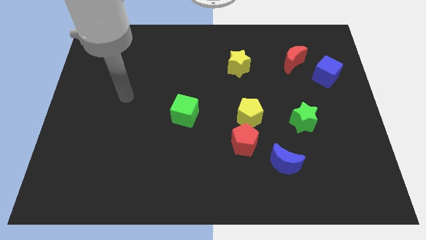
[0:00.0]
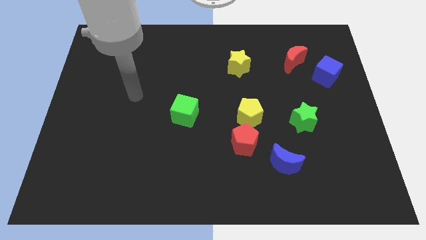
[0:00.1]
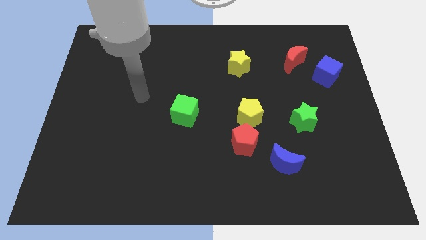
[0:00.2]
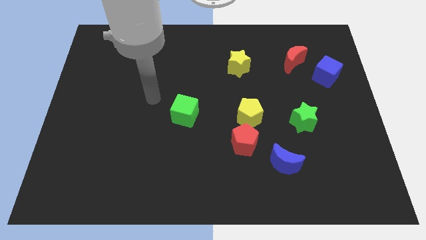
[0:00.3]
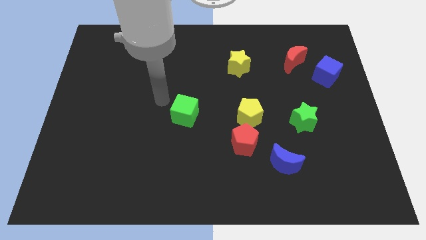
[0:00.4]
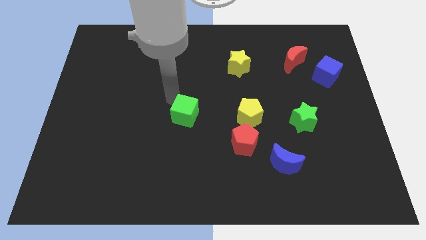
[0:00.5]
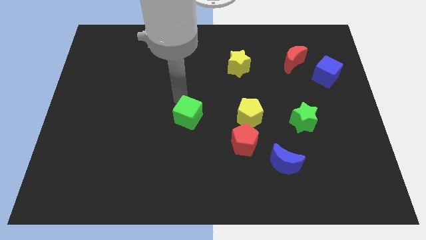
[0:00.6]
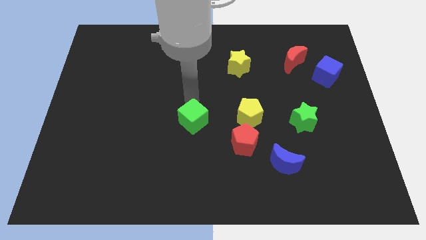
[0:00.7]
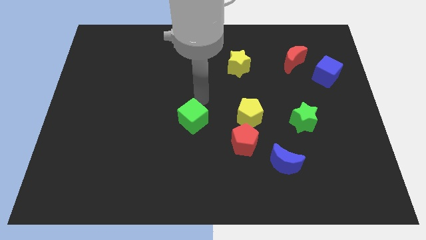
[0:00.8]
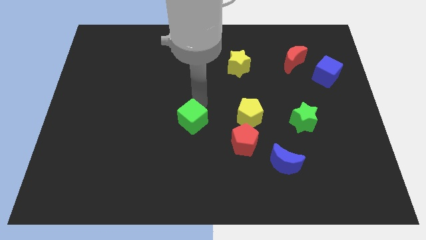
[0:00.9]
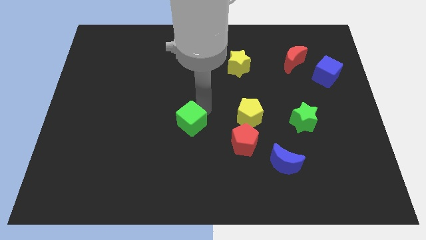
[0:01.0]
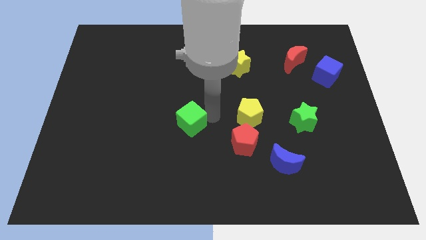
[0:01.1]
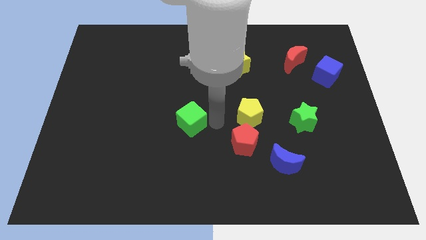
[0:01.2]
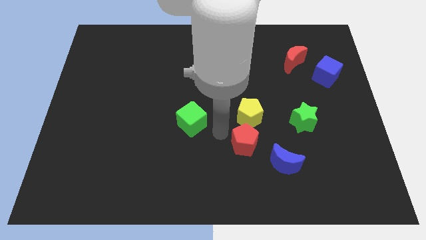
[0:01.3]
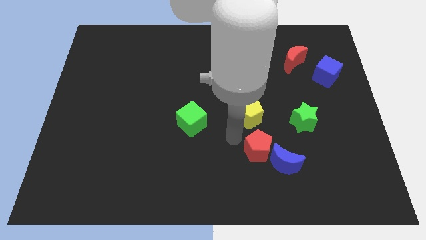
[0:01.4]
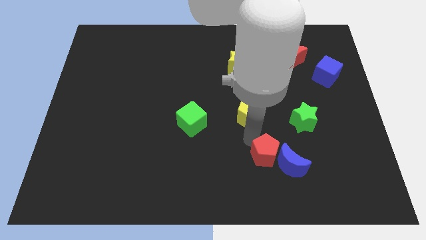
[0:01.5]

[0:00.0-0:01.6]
separate the yellow pentagon from the red pentagon

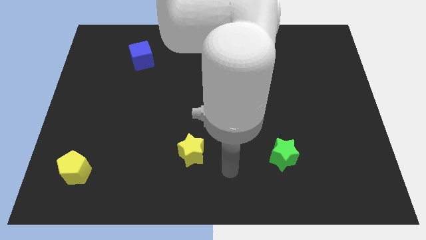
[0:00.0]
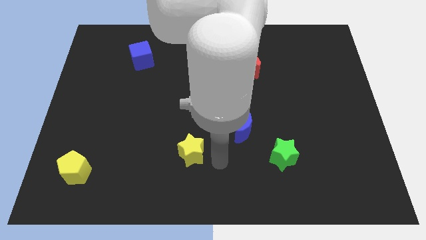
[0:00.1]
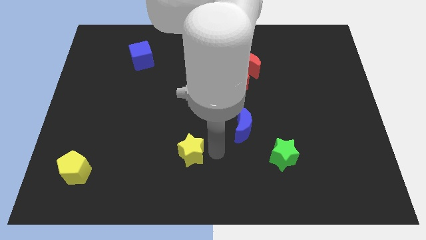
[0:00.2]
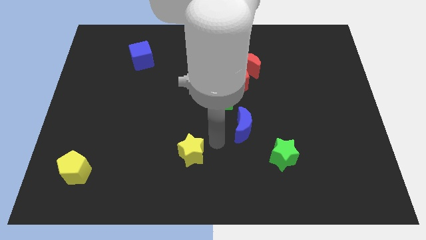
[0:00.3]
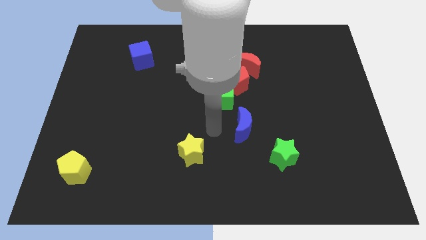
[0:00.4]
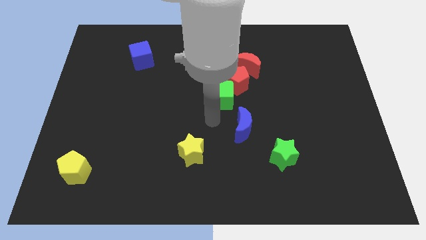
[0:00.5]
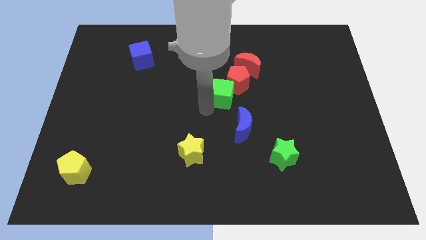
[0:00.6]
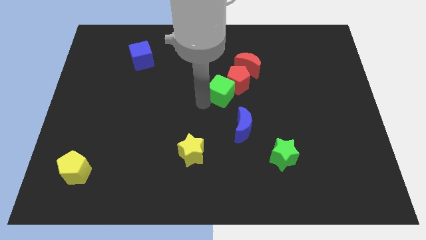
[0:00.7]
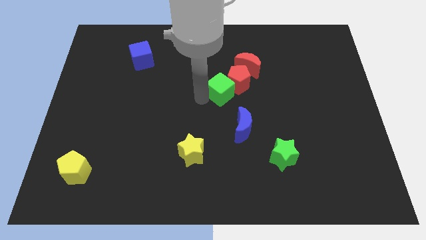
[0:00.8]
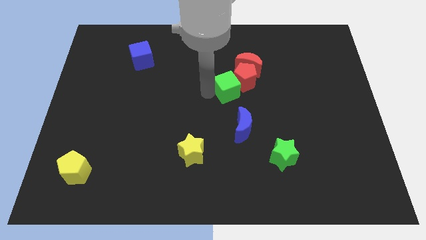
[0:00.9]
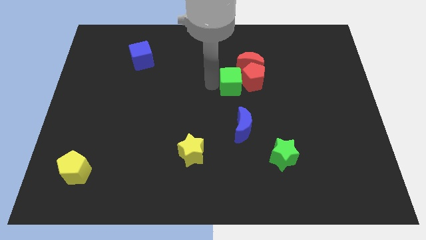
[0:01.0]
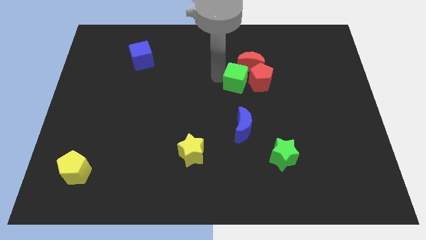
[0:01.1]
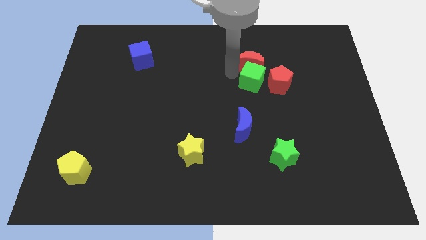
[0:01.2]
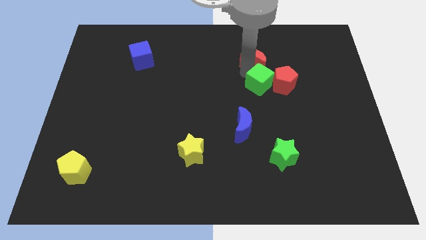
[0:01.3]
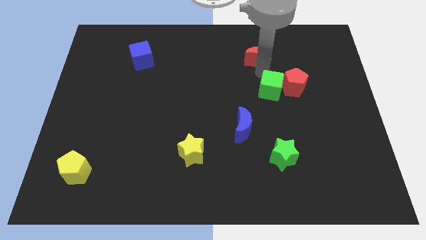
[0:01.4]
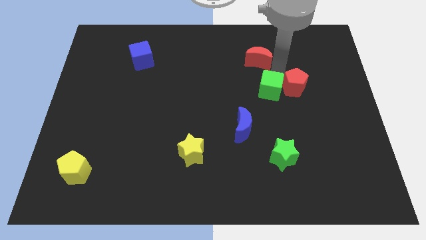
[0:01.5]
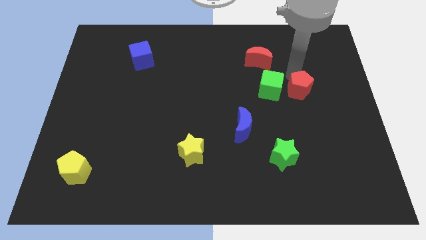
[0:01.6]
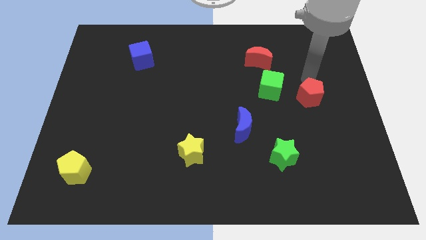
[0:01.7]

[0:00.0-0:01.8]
move the red pentagon away from the green cube and red moon

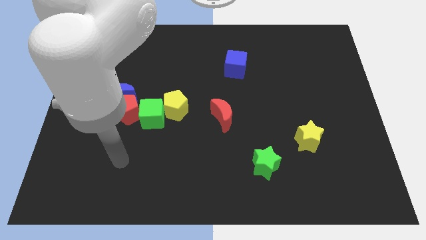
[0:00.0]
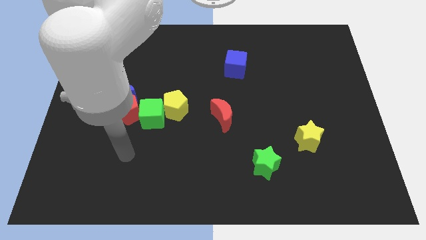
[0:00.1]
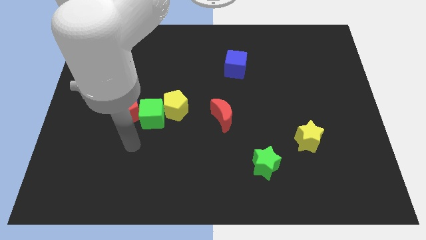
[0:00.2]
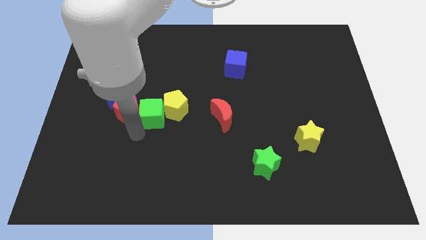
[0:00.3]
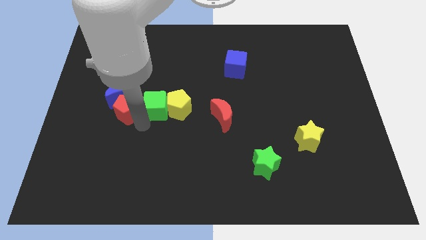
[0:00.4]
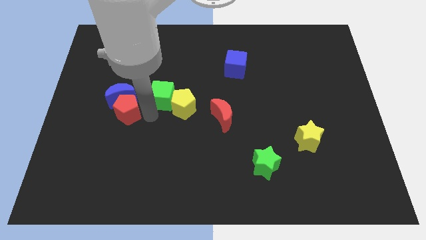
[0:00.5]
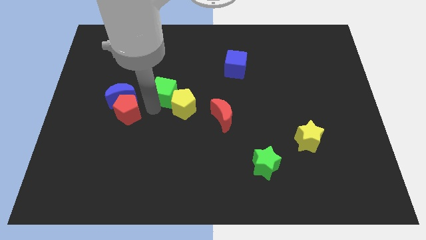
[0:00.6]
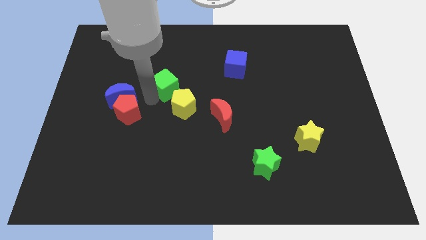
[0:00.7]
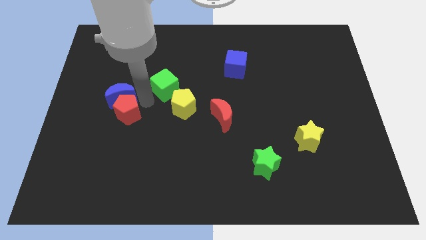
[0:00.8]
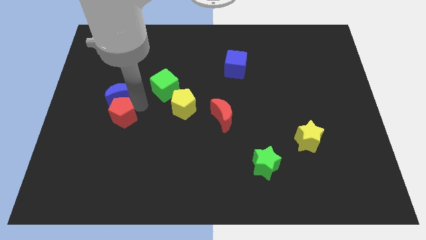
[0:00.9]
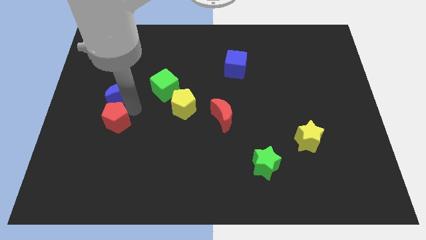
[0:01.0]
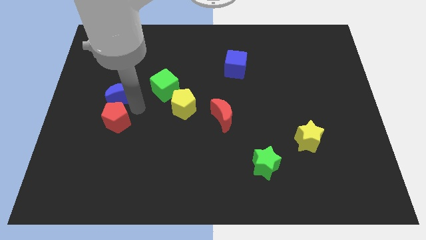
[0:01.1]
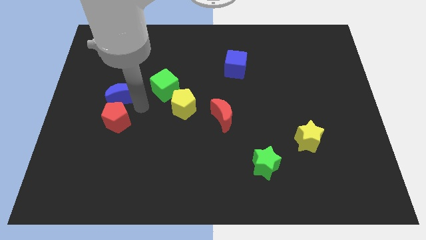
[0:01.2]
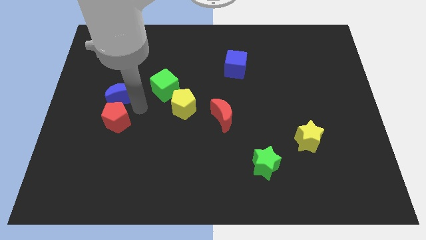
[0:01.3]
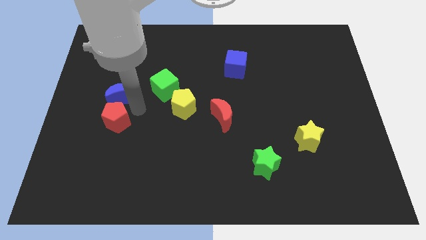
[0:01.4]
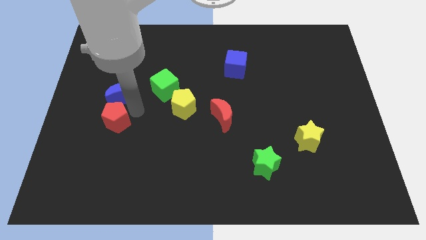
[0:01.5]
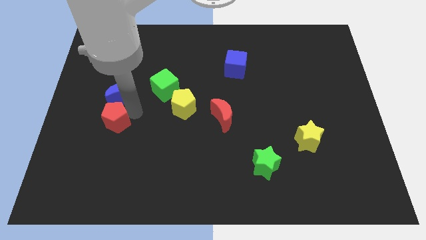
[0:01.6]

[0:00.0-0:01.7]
separate the red pentagon from the blue moon and green cube

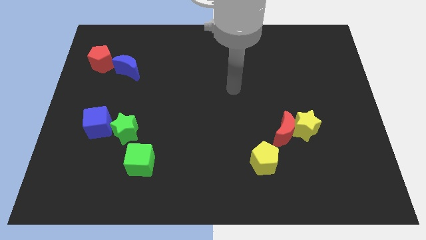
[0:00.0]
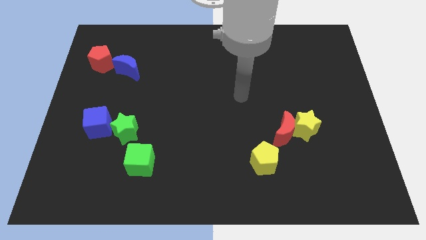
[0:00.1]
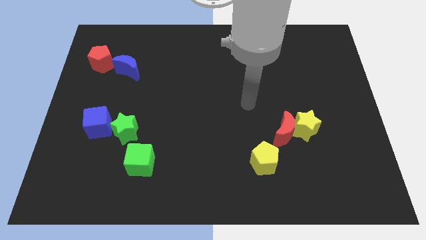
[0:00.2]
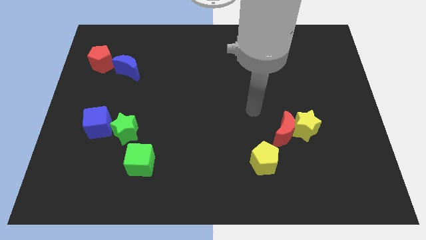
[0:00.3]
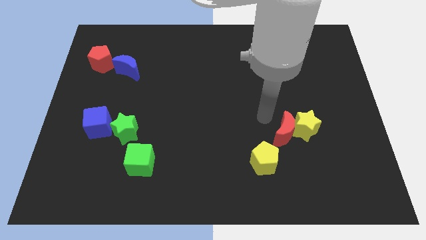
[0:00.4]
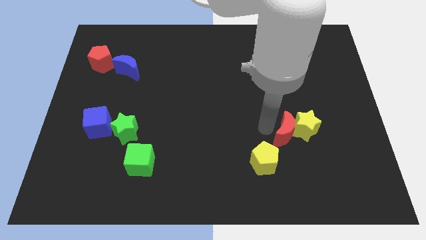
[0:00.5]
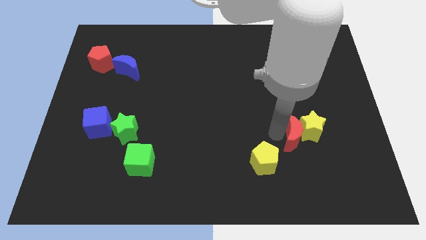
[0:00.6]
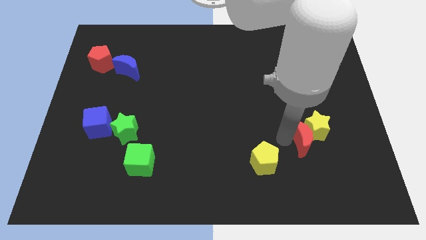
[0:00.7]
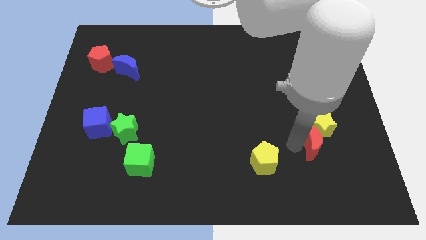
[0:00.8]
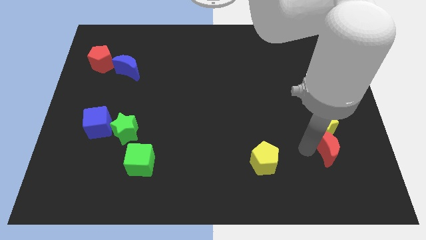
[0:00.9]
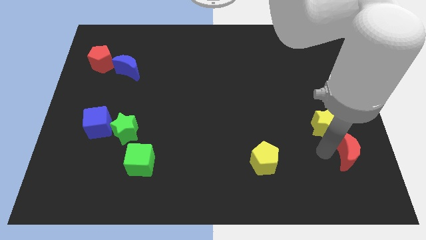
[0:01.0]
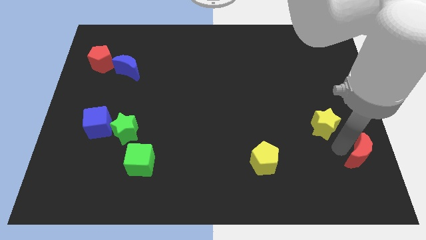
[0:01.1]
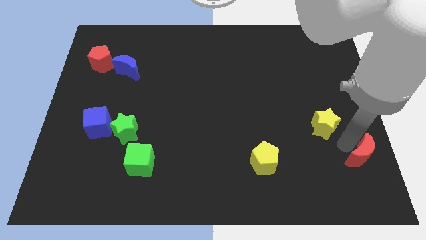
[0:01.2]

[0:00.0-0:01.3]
pull the yellow star apart from the red moon

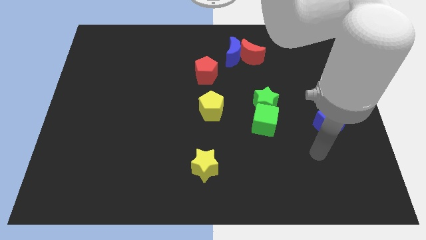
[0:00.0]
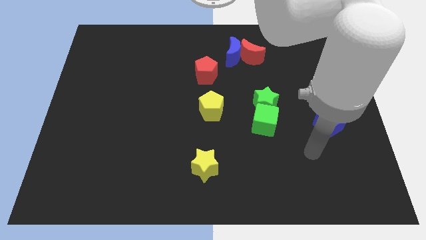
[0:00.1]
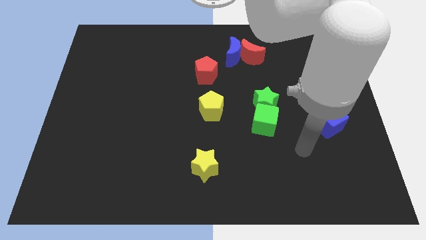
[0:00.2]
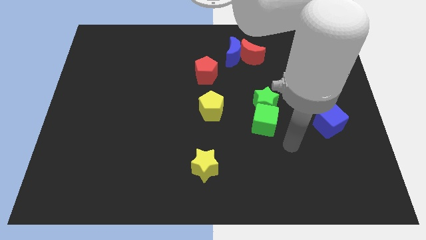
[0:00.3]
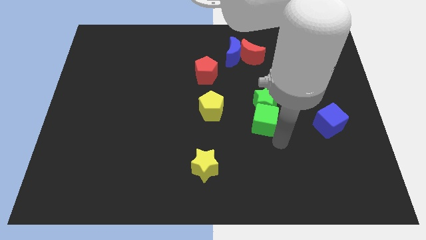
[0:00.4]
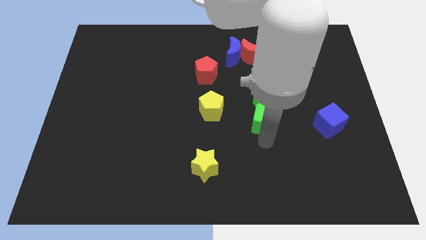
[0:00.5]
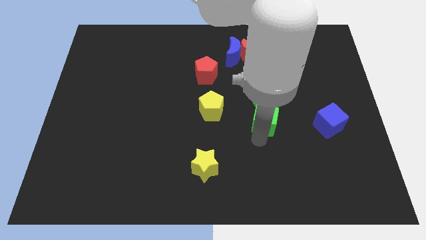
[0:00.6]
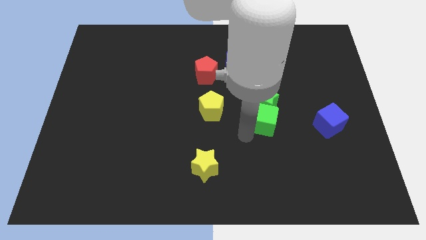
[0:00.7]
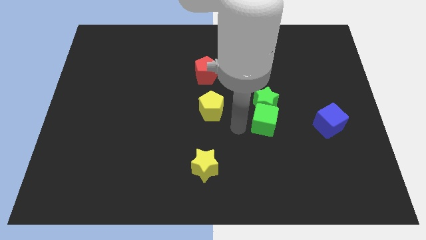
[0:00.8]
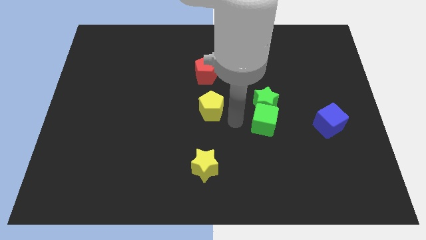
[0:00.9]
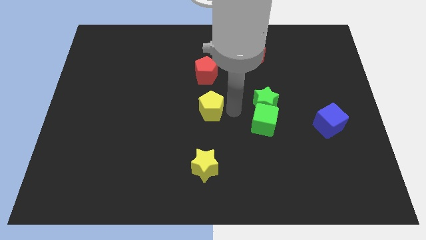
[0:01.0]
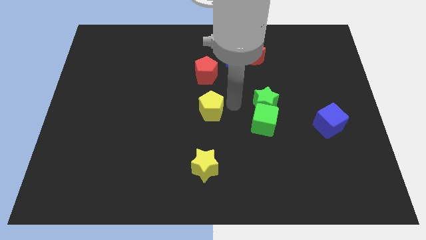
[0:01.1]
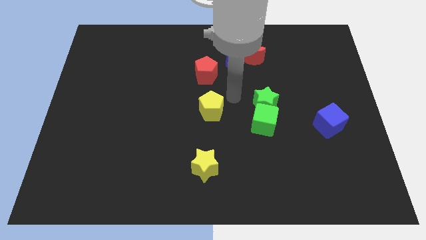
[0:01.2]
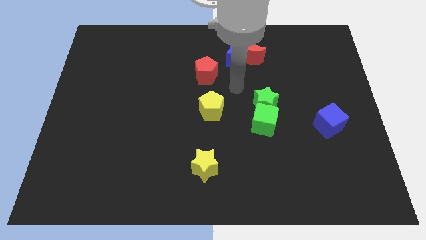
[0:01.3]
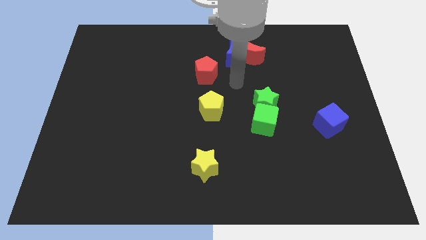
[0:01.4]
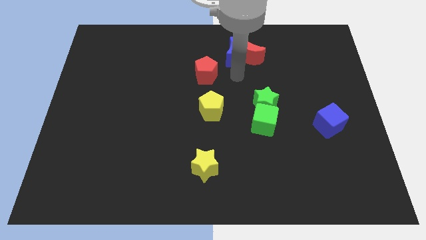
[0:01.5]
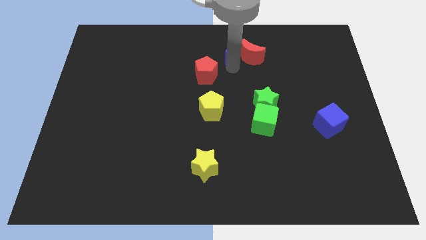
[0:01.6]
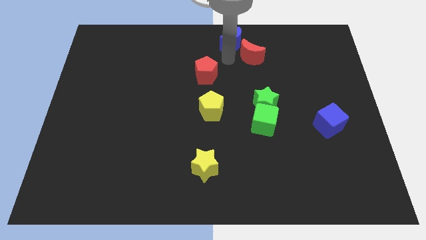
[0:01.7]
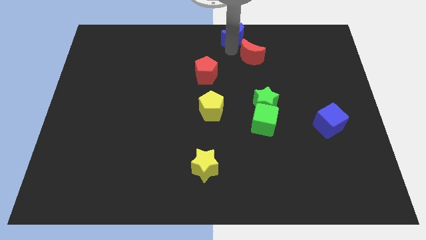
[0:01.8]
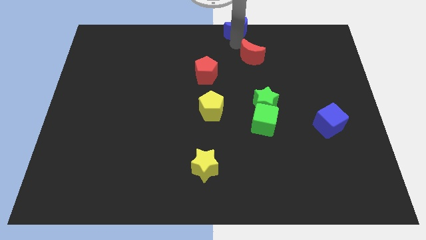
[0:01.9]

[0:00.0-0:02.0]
separate the red moon from the blue moon

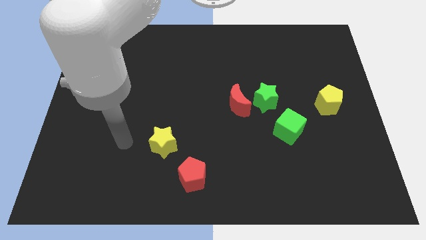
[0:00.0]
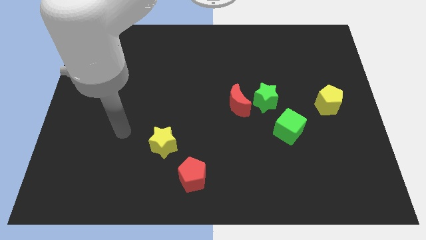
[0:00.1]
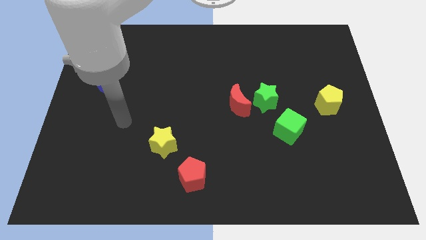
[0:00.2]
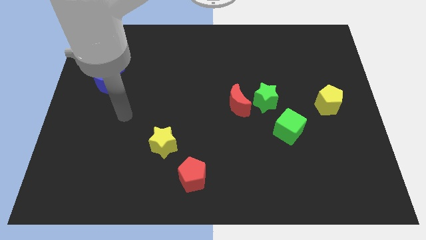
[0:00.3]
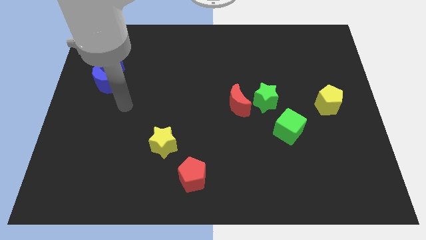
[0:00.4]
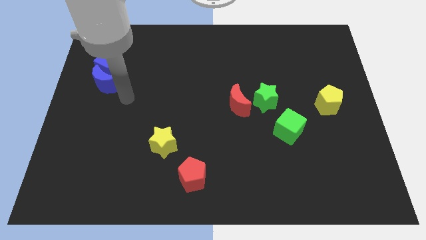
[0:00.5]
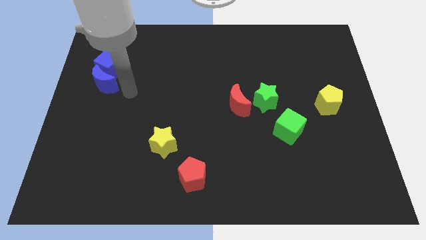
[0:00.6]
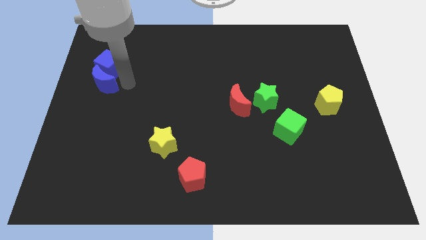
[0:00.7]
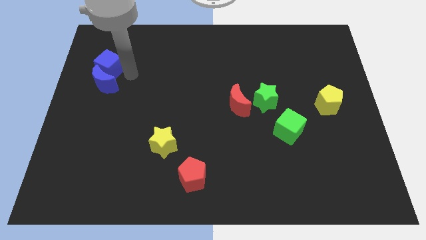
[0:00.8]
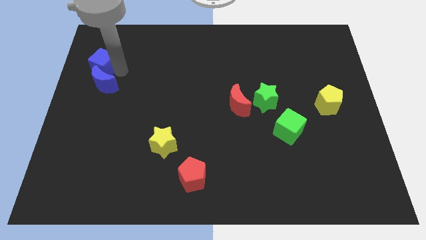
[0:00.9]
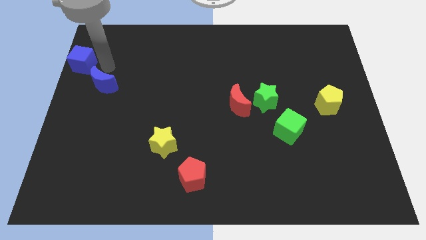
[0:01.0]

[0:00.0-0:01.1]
separate the blue moon from the blue cube
